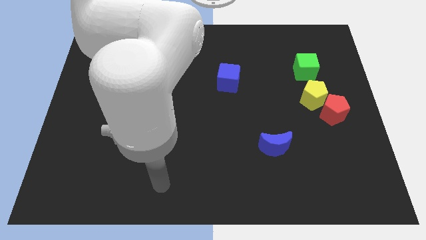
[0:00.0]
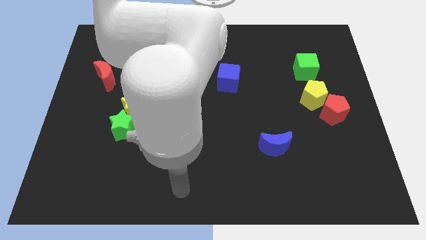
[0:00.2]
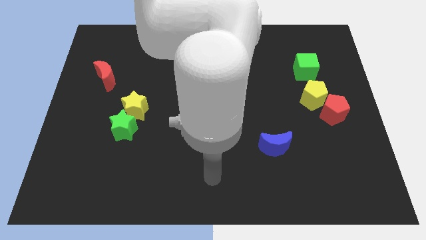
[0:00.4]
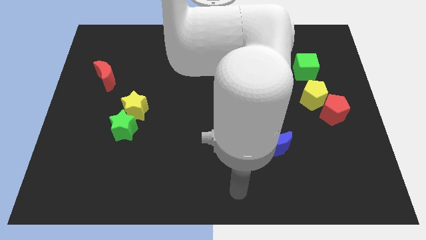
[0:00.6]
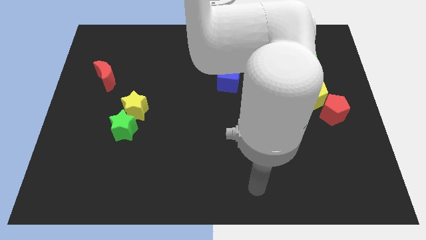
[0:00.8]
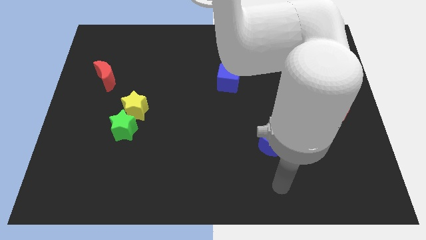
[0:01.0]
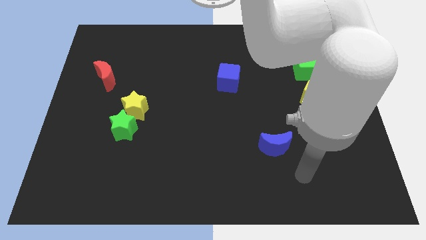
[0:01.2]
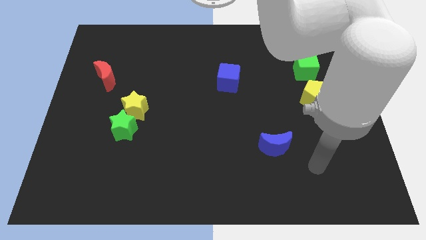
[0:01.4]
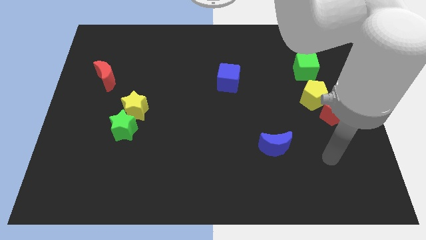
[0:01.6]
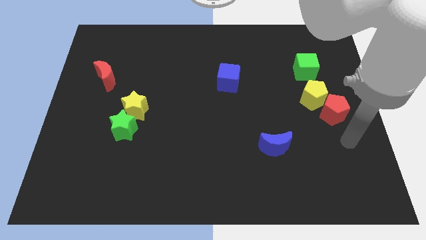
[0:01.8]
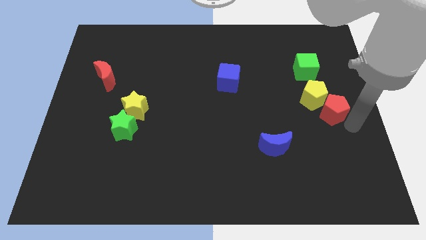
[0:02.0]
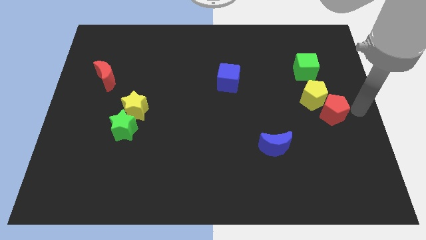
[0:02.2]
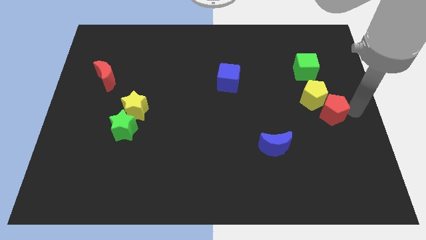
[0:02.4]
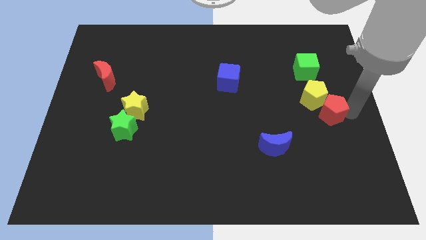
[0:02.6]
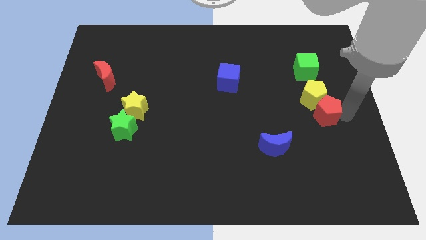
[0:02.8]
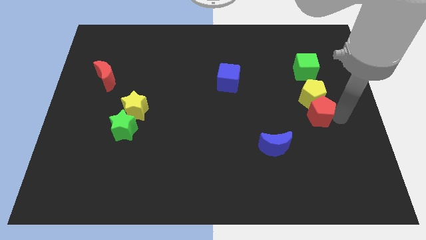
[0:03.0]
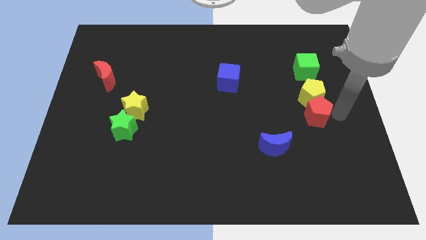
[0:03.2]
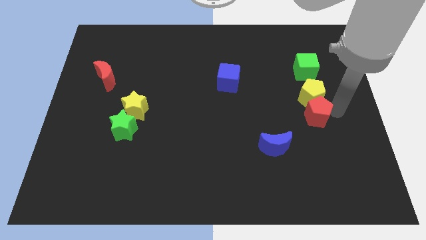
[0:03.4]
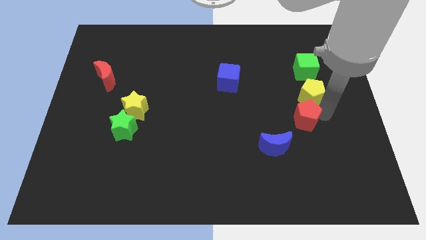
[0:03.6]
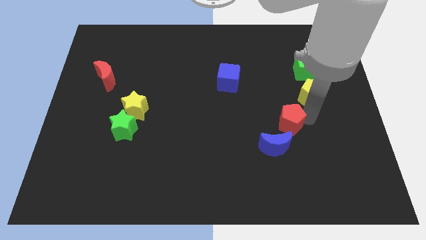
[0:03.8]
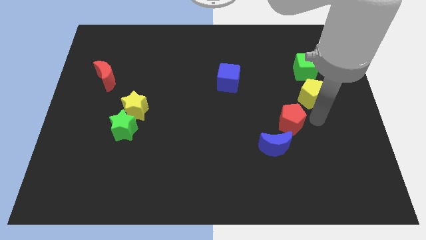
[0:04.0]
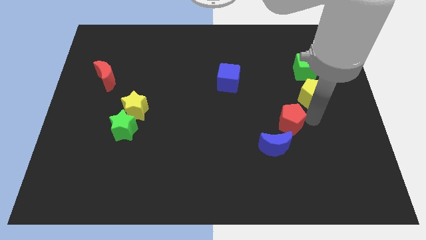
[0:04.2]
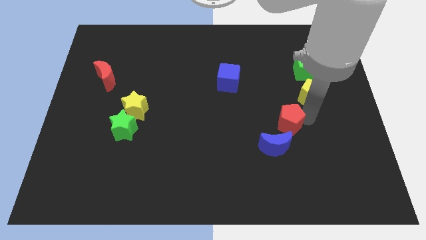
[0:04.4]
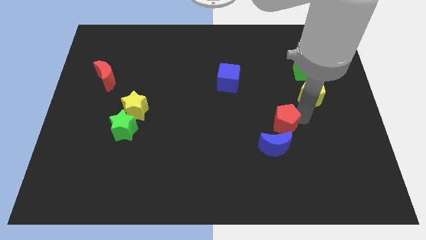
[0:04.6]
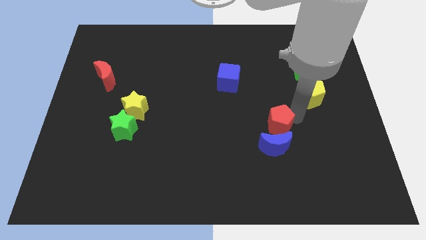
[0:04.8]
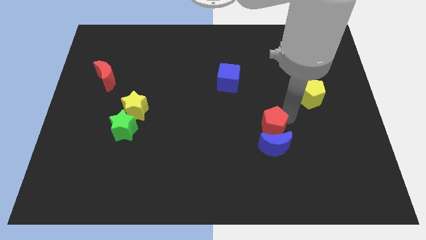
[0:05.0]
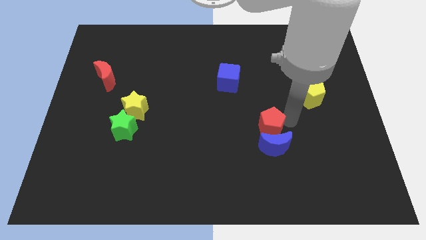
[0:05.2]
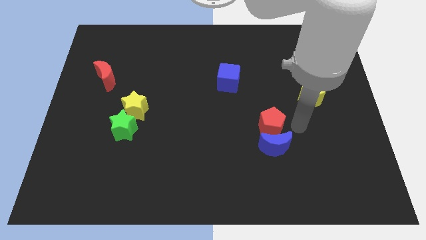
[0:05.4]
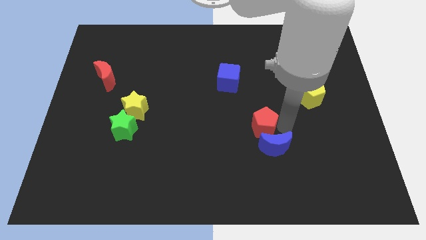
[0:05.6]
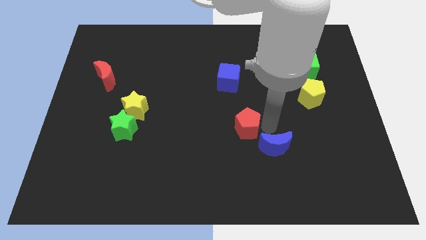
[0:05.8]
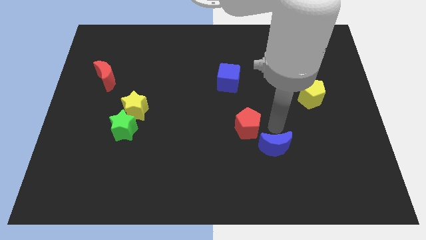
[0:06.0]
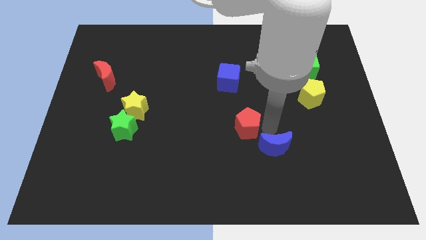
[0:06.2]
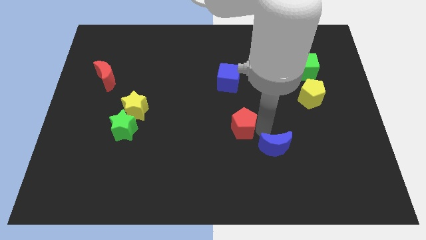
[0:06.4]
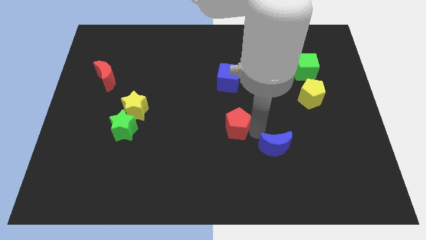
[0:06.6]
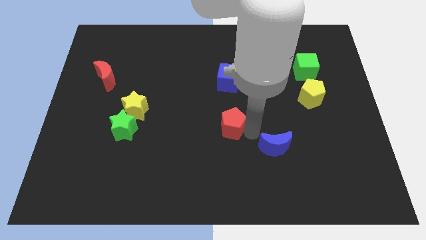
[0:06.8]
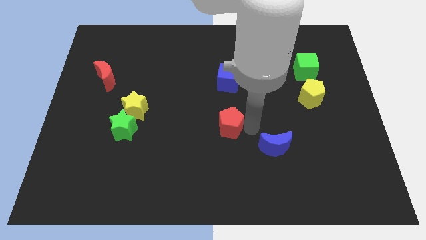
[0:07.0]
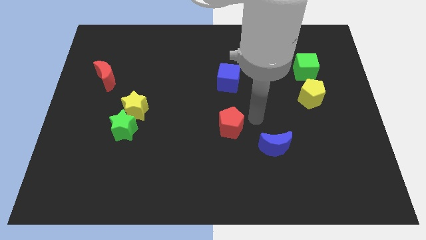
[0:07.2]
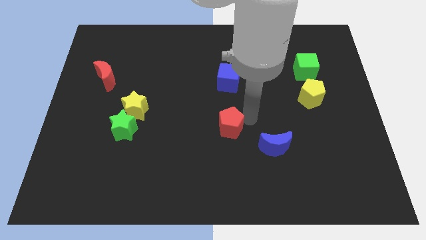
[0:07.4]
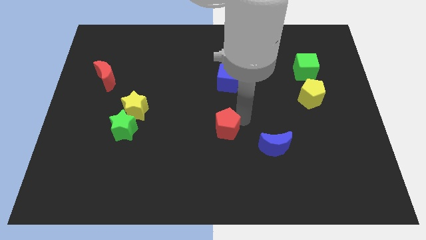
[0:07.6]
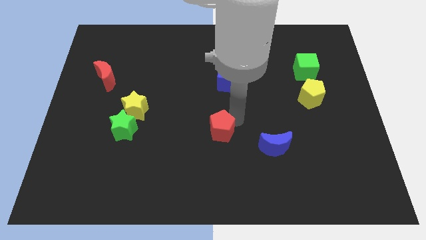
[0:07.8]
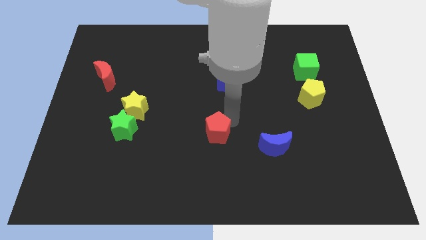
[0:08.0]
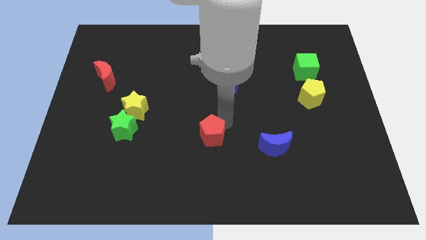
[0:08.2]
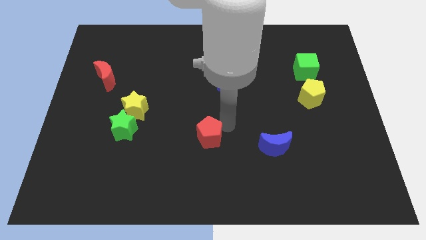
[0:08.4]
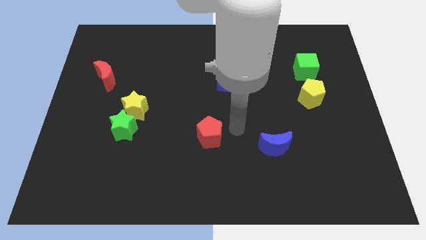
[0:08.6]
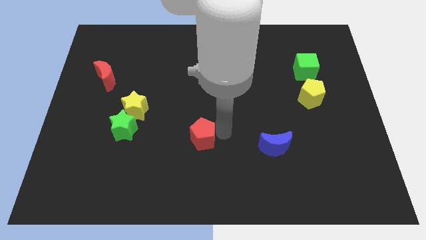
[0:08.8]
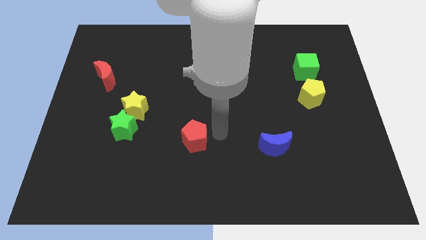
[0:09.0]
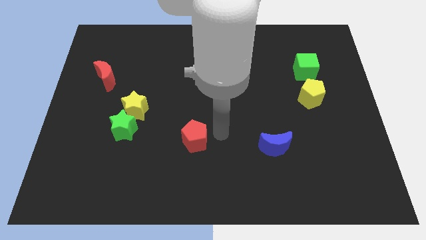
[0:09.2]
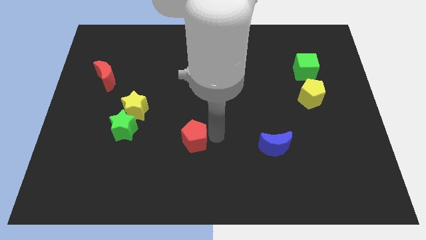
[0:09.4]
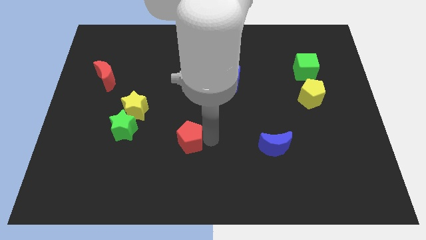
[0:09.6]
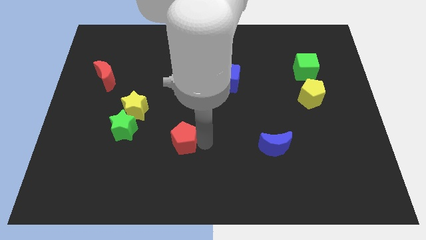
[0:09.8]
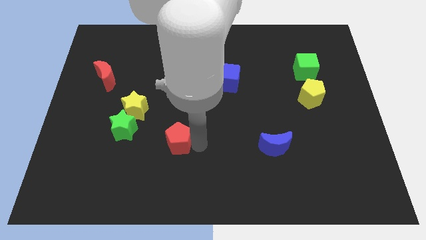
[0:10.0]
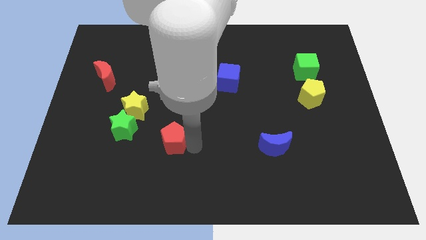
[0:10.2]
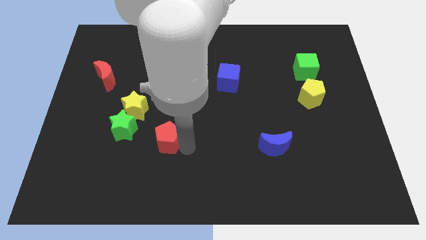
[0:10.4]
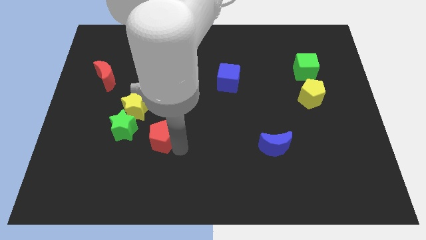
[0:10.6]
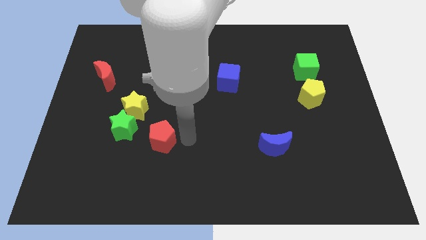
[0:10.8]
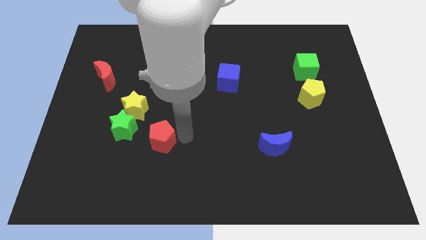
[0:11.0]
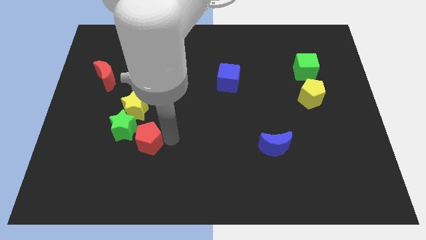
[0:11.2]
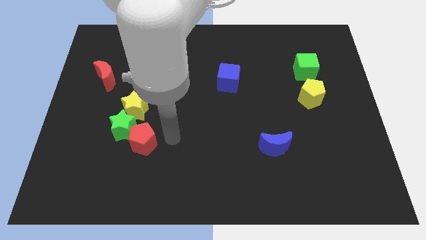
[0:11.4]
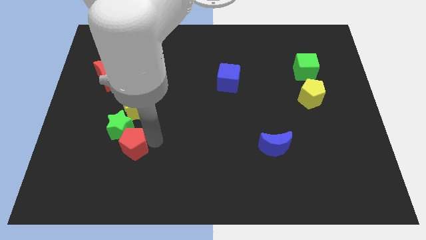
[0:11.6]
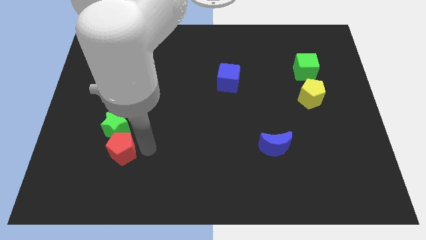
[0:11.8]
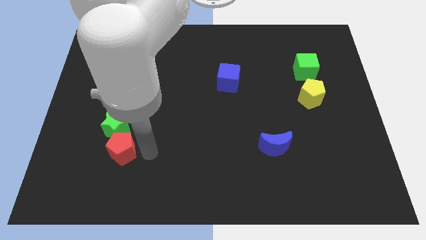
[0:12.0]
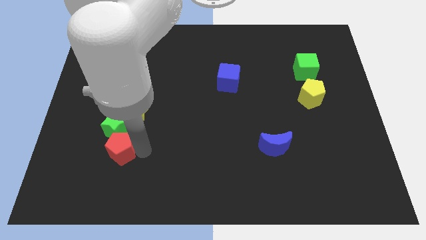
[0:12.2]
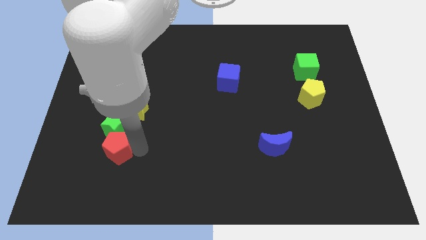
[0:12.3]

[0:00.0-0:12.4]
move the red pentagon to the bottom left of the green star

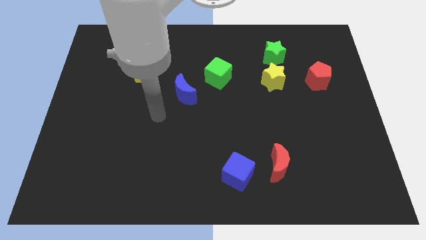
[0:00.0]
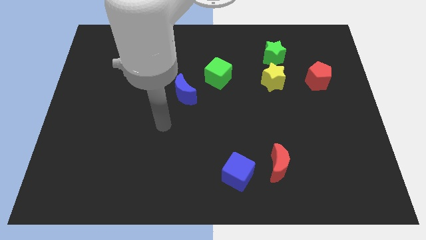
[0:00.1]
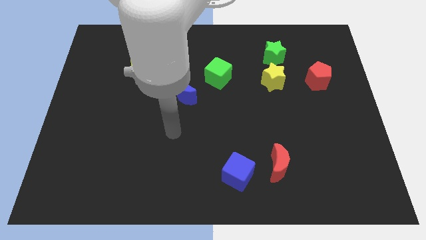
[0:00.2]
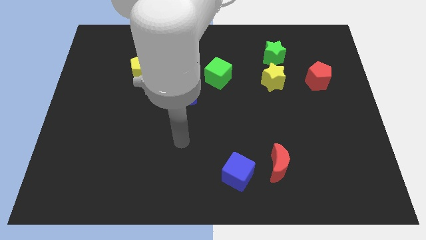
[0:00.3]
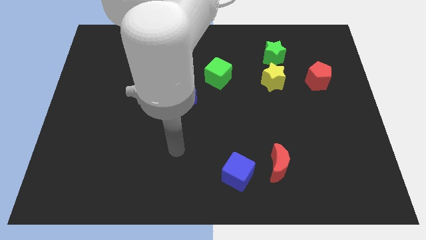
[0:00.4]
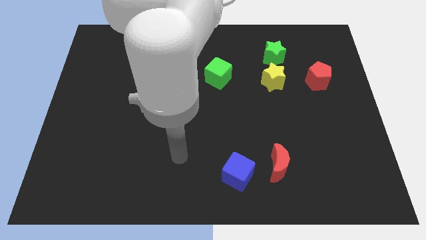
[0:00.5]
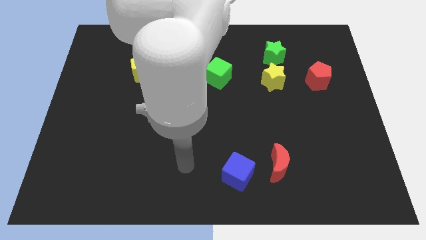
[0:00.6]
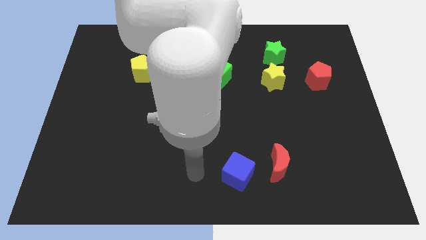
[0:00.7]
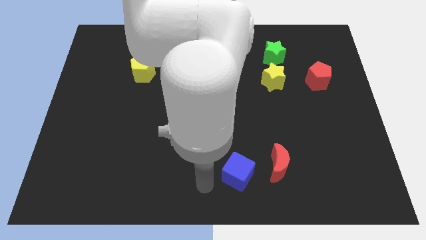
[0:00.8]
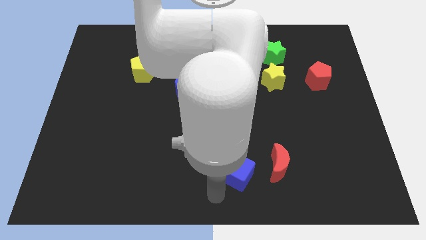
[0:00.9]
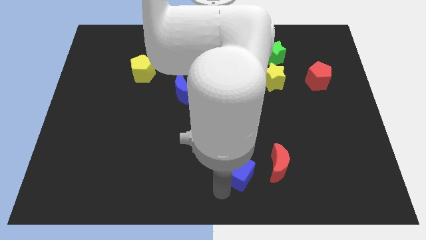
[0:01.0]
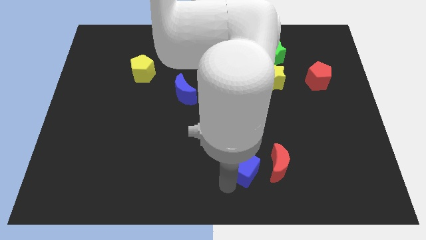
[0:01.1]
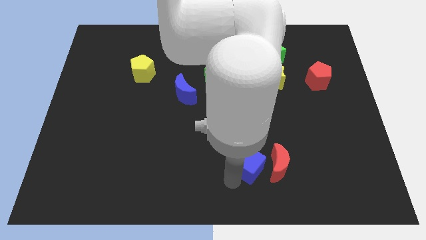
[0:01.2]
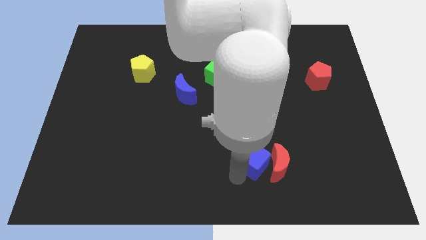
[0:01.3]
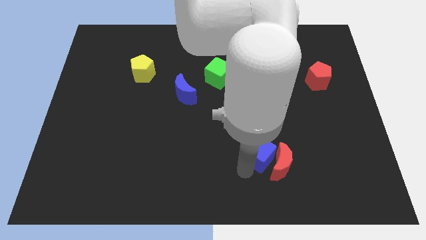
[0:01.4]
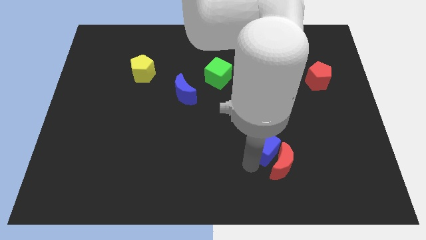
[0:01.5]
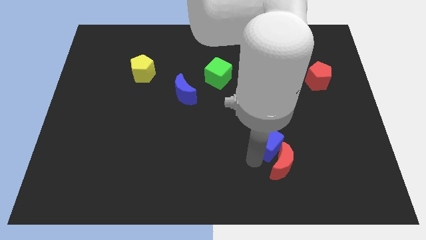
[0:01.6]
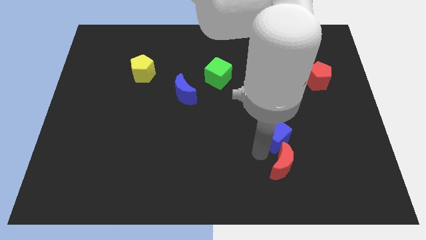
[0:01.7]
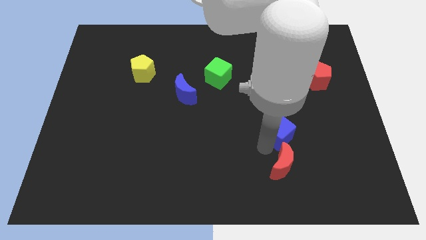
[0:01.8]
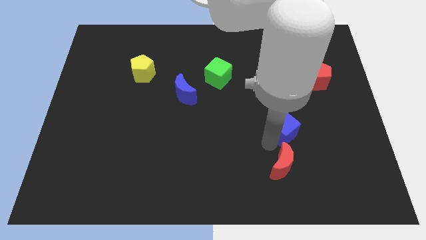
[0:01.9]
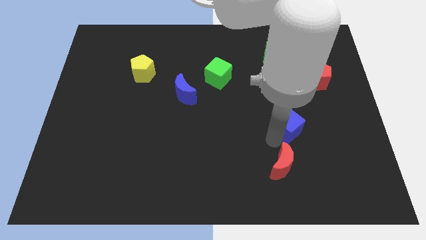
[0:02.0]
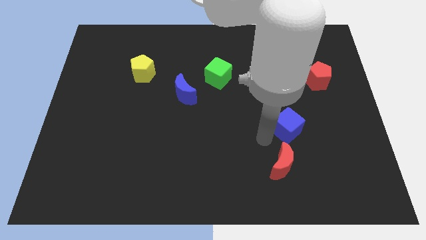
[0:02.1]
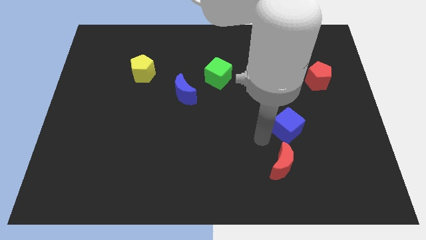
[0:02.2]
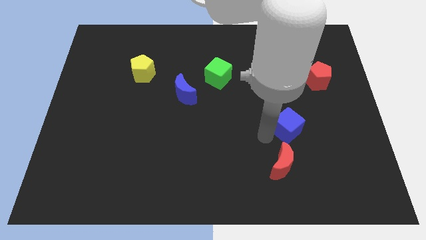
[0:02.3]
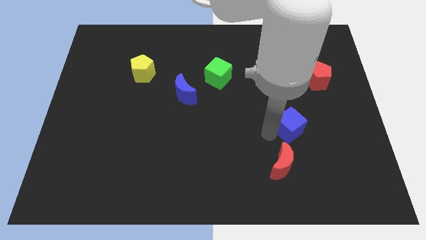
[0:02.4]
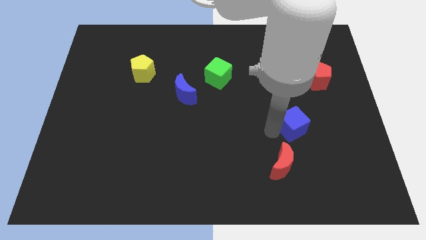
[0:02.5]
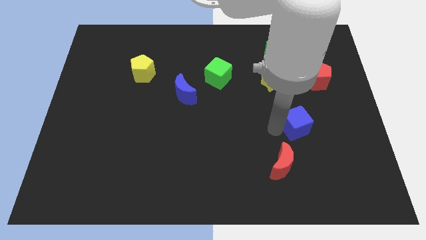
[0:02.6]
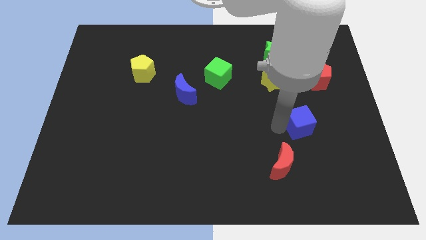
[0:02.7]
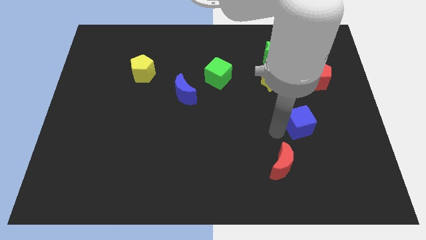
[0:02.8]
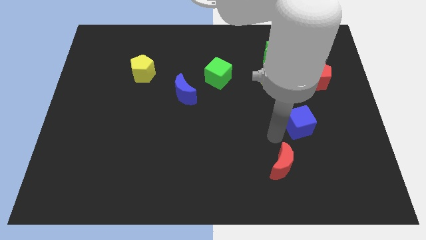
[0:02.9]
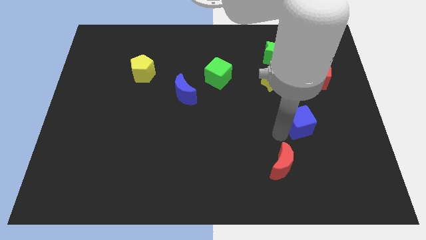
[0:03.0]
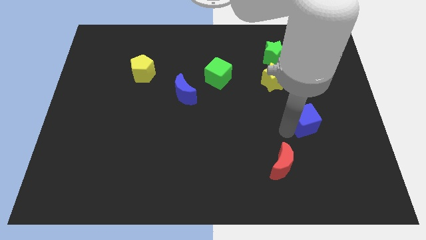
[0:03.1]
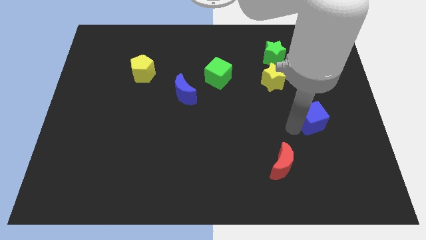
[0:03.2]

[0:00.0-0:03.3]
push the blue cube to the bottom side of the red pentagon
